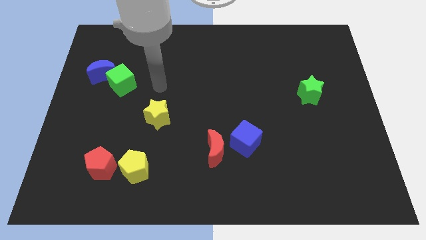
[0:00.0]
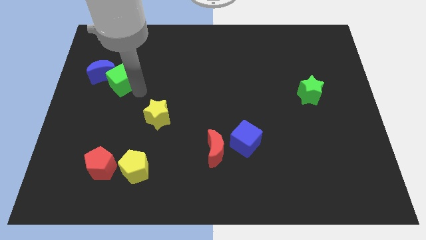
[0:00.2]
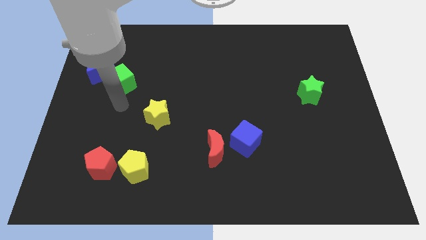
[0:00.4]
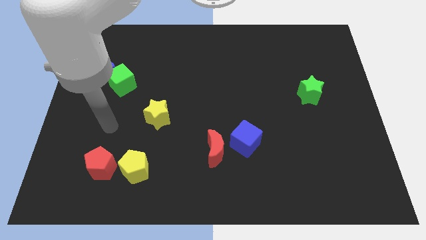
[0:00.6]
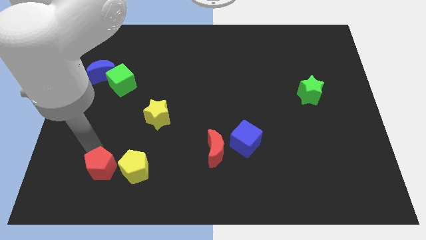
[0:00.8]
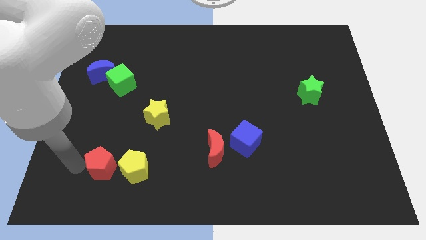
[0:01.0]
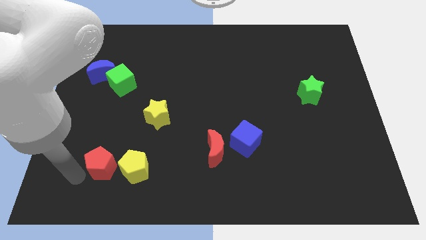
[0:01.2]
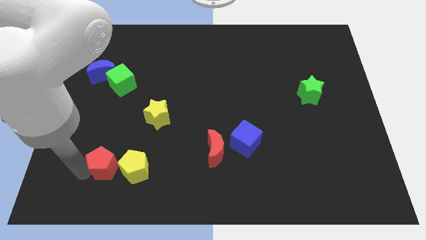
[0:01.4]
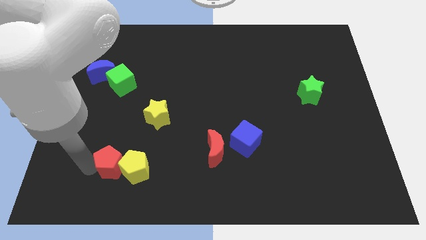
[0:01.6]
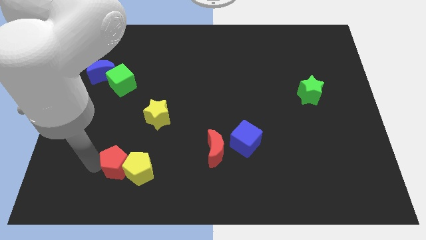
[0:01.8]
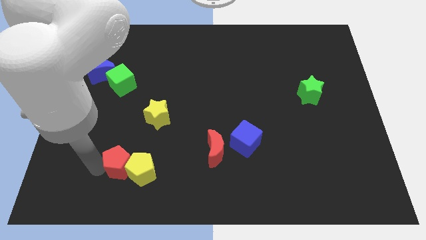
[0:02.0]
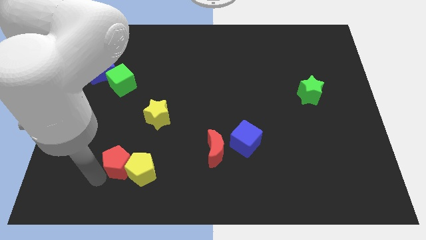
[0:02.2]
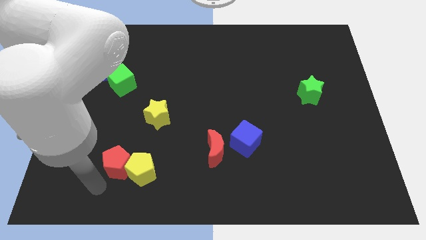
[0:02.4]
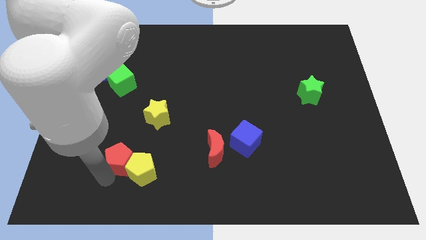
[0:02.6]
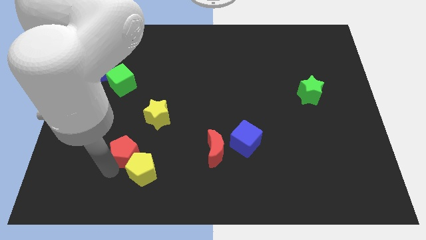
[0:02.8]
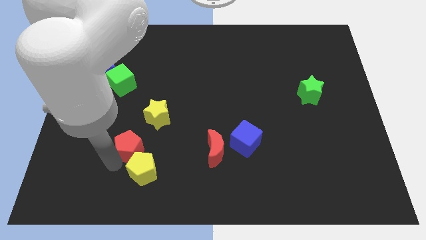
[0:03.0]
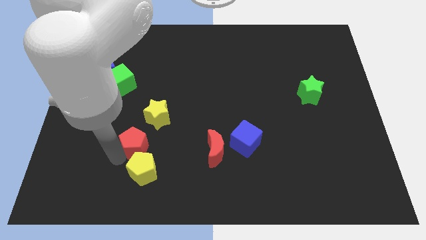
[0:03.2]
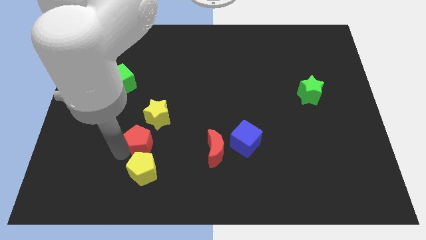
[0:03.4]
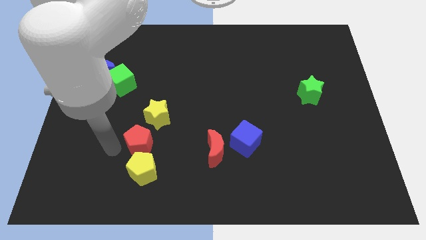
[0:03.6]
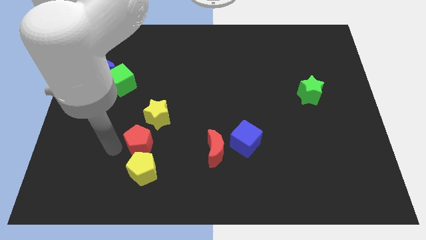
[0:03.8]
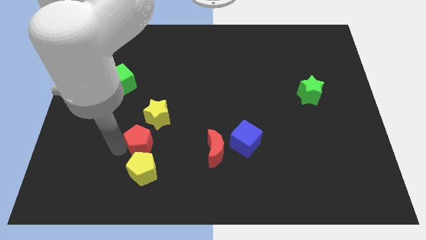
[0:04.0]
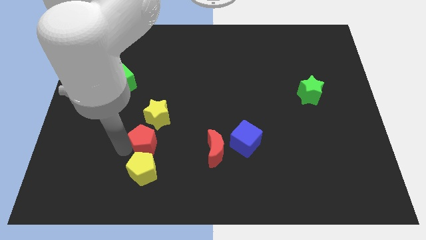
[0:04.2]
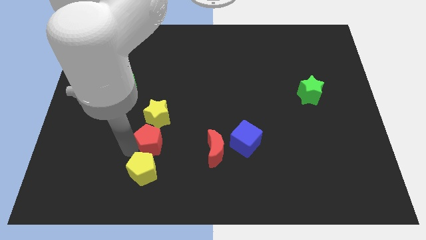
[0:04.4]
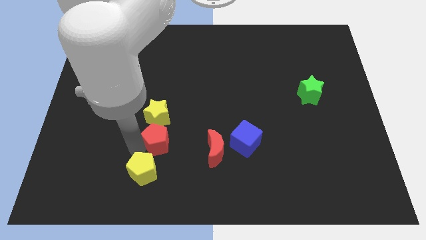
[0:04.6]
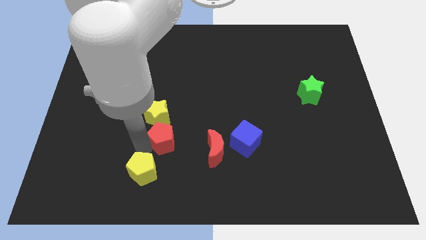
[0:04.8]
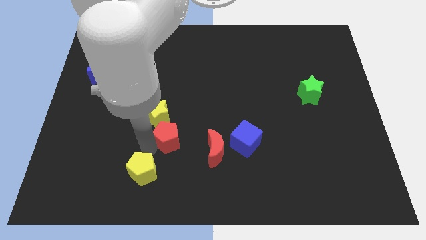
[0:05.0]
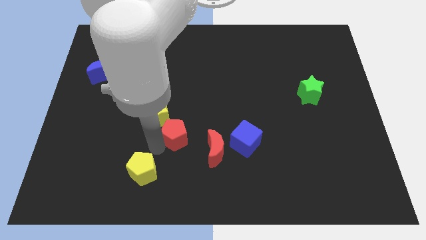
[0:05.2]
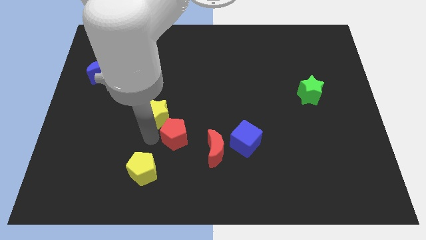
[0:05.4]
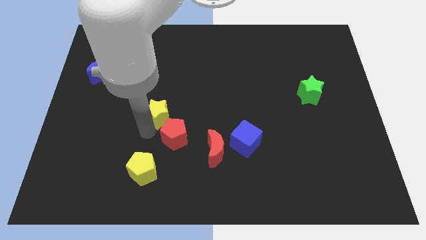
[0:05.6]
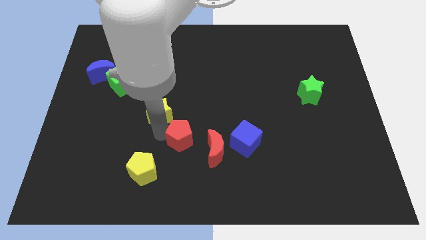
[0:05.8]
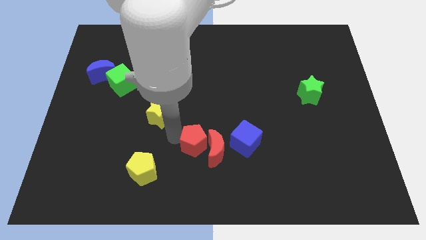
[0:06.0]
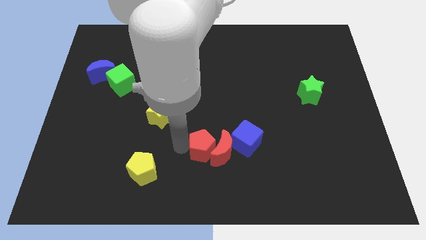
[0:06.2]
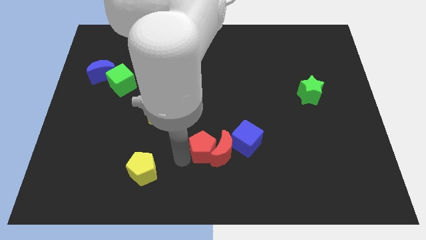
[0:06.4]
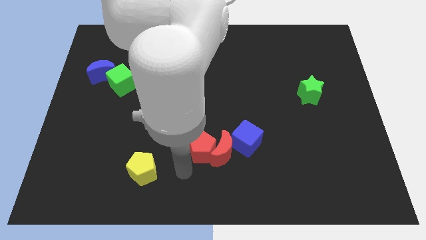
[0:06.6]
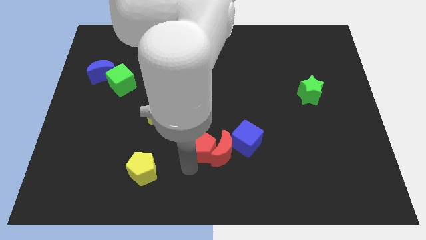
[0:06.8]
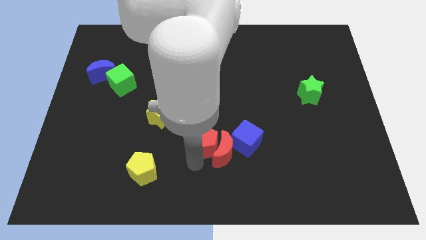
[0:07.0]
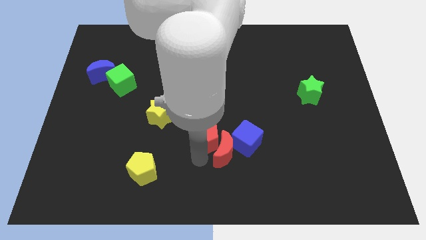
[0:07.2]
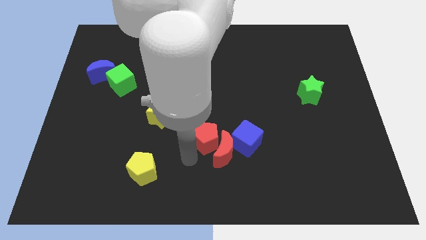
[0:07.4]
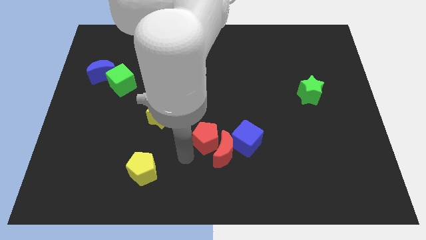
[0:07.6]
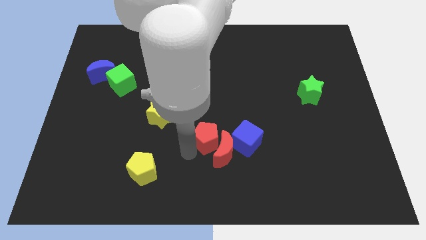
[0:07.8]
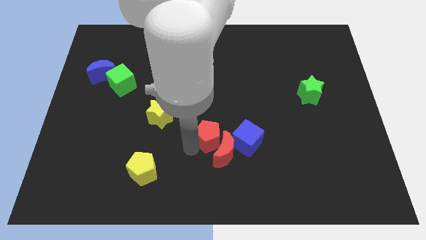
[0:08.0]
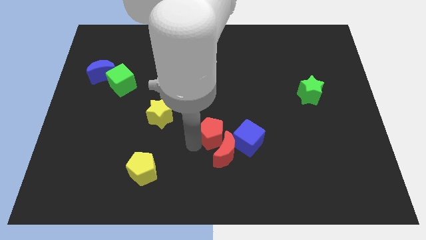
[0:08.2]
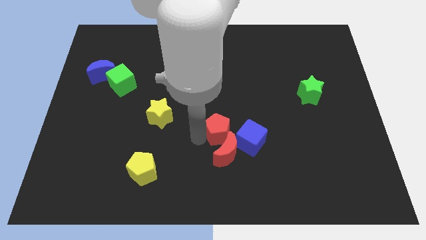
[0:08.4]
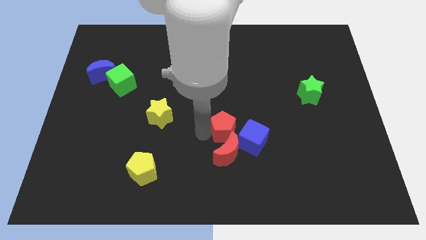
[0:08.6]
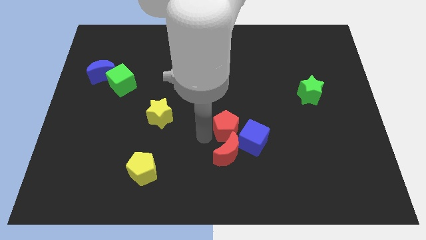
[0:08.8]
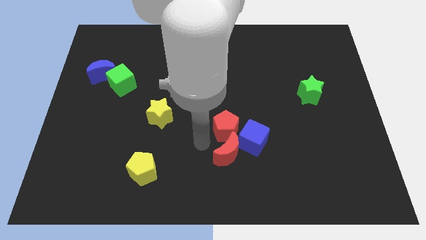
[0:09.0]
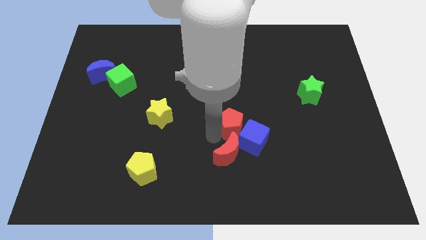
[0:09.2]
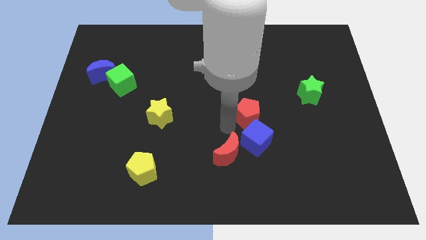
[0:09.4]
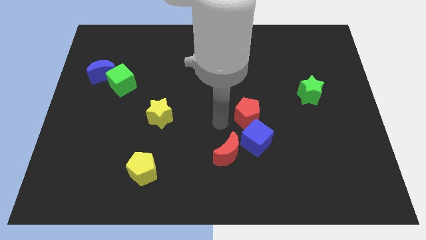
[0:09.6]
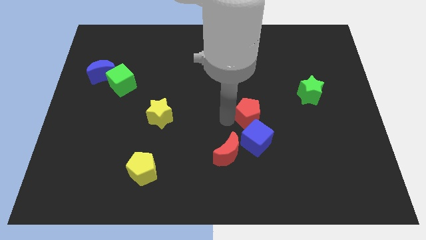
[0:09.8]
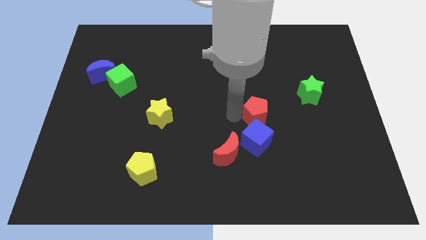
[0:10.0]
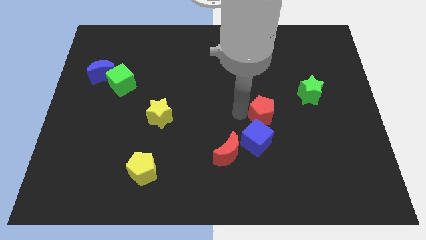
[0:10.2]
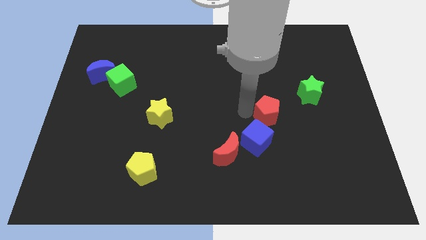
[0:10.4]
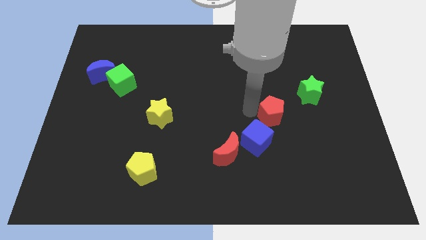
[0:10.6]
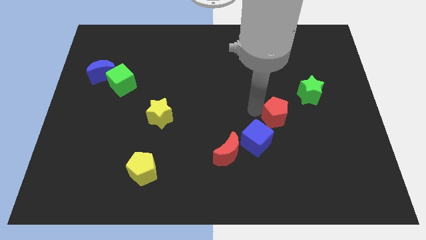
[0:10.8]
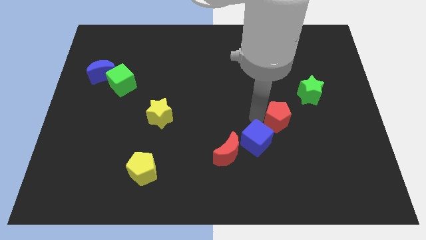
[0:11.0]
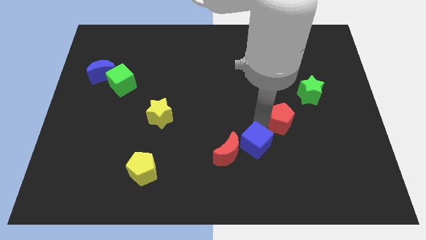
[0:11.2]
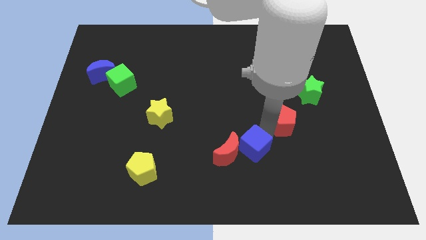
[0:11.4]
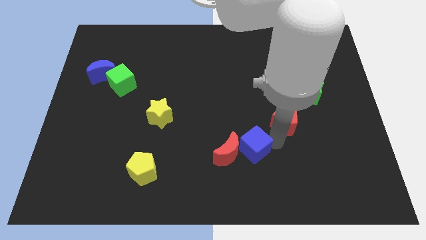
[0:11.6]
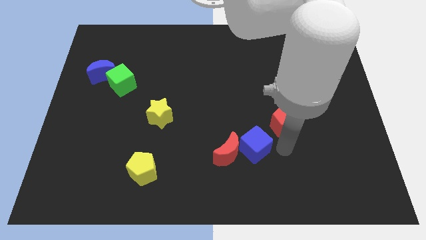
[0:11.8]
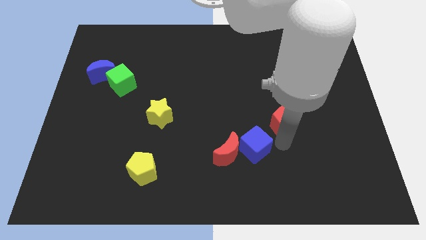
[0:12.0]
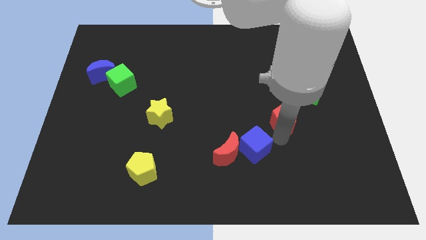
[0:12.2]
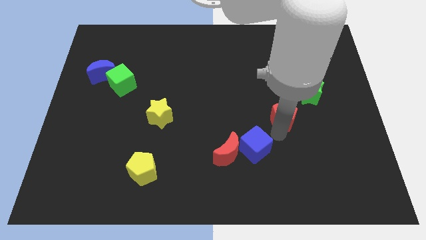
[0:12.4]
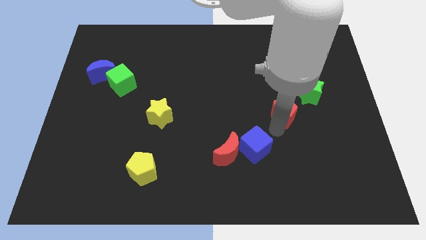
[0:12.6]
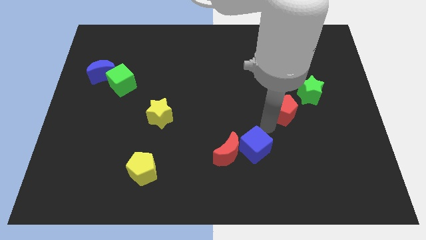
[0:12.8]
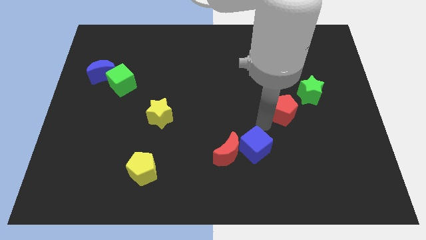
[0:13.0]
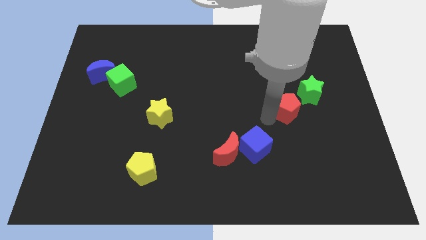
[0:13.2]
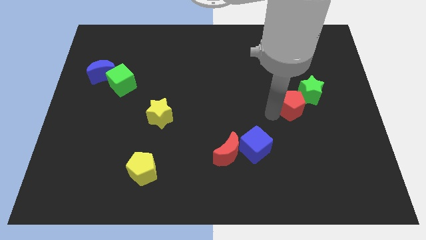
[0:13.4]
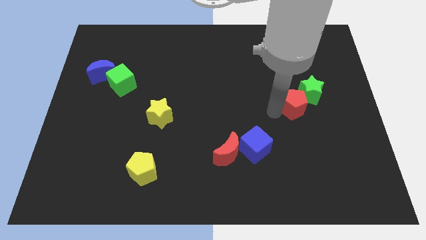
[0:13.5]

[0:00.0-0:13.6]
push the red pentagon close to the green star
